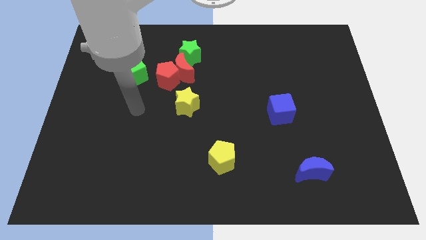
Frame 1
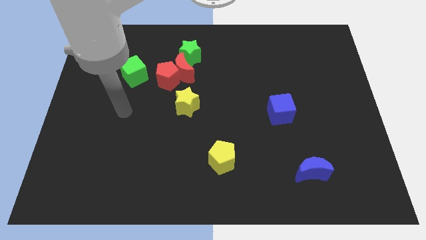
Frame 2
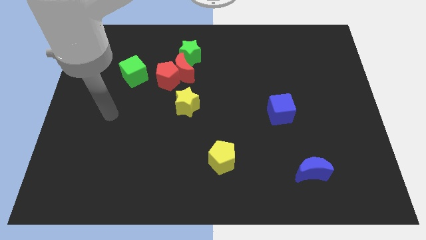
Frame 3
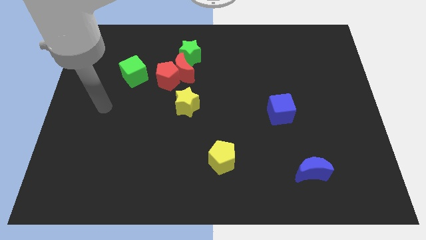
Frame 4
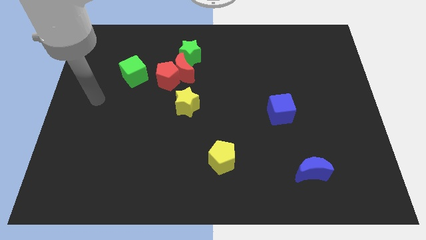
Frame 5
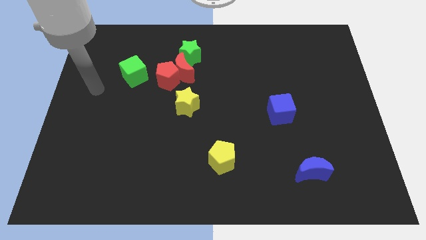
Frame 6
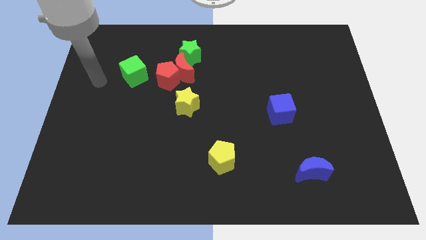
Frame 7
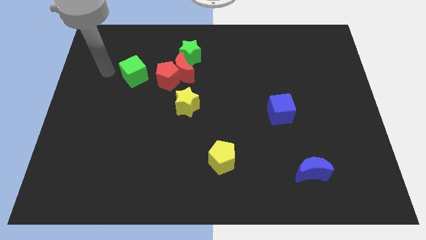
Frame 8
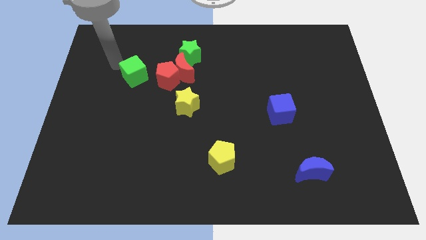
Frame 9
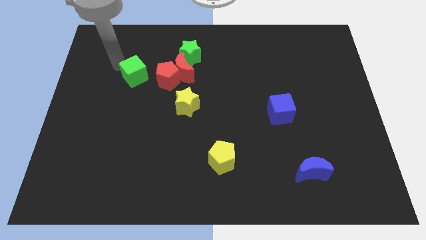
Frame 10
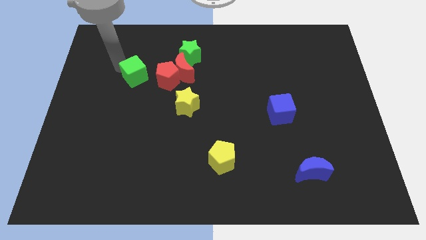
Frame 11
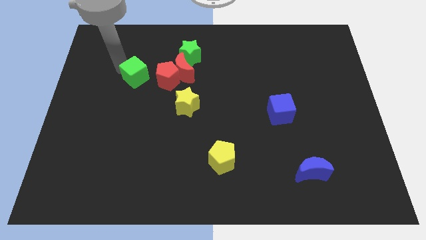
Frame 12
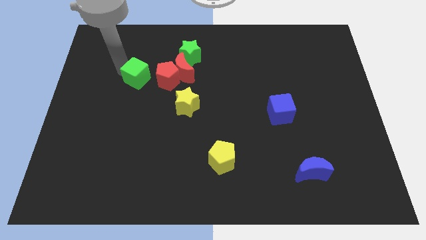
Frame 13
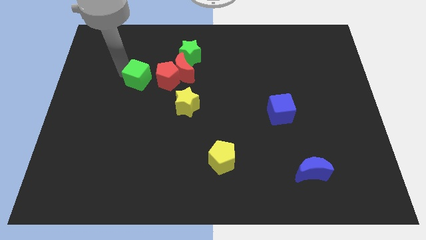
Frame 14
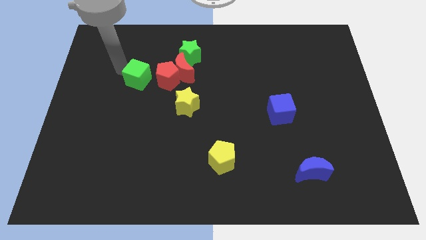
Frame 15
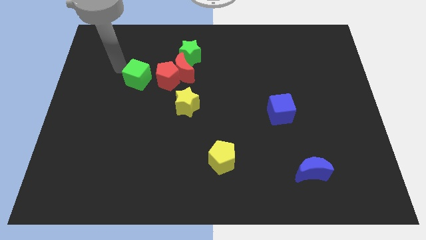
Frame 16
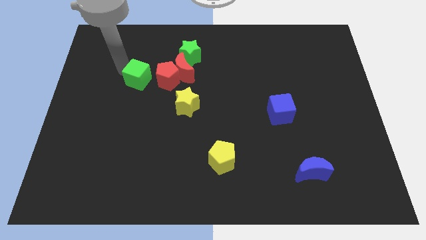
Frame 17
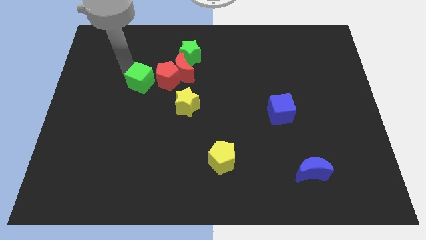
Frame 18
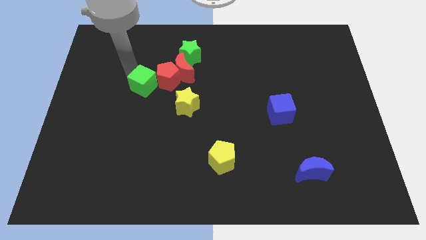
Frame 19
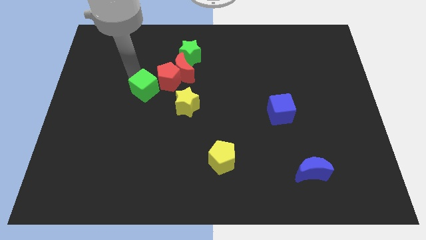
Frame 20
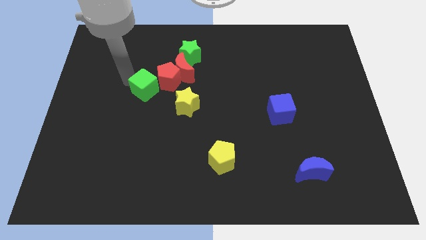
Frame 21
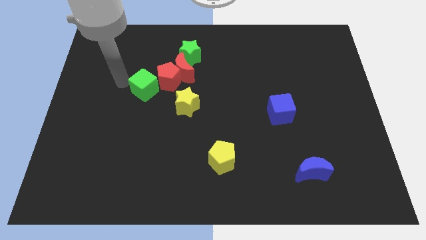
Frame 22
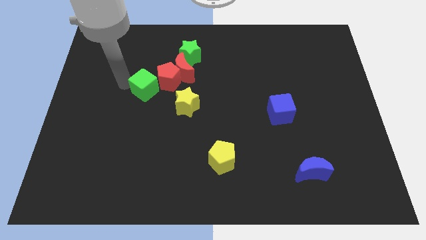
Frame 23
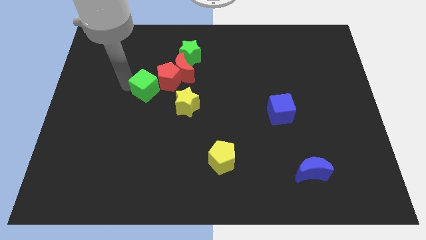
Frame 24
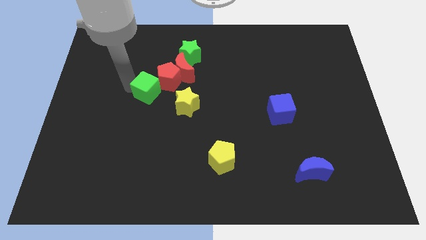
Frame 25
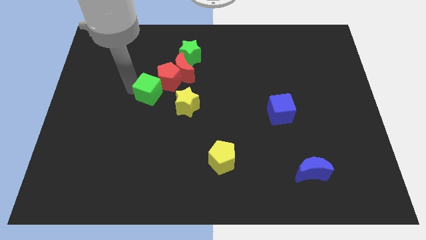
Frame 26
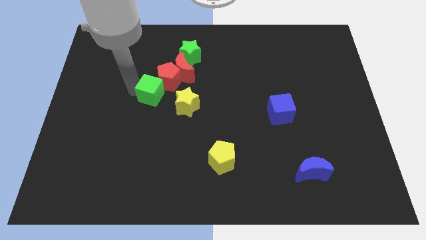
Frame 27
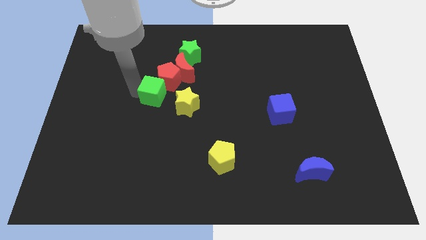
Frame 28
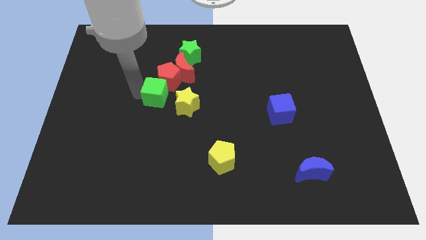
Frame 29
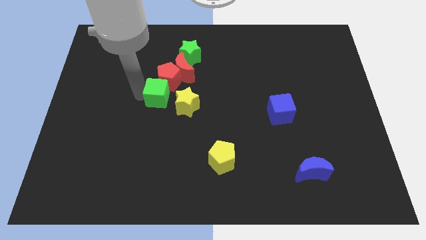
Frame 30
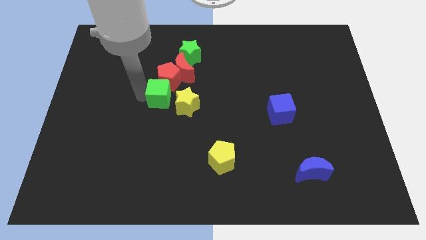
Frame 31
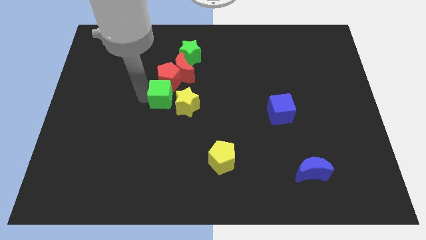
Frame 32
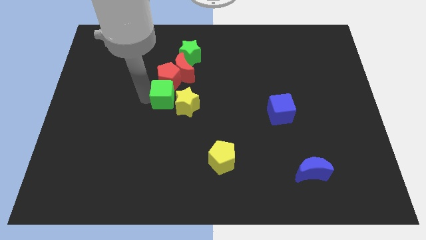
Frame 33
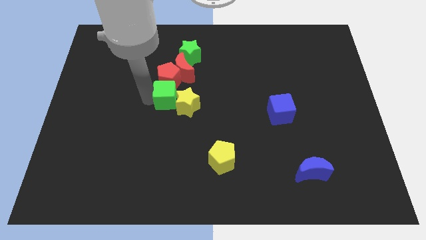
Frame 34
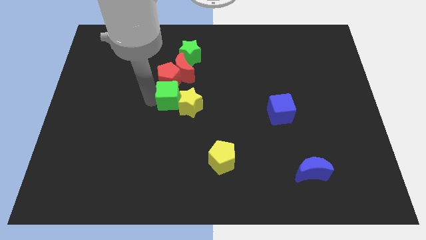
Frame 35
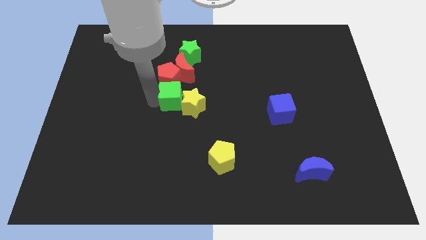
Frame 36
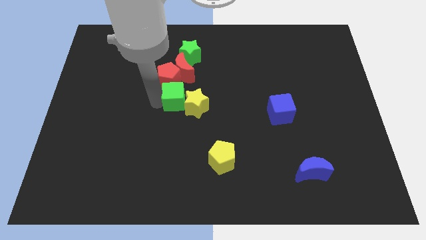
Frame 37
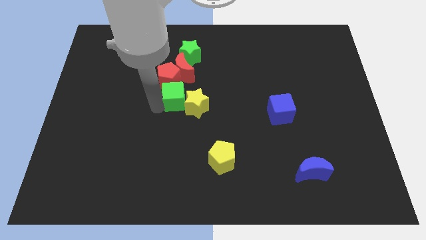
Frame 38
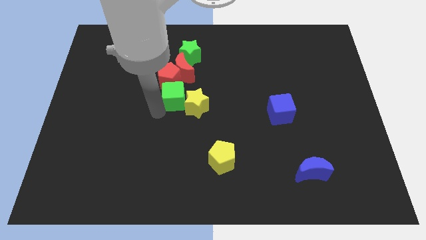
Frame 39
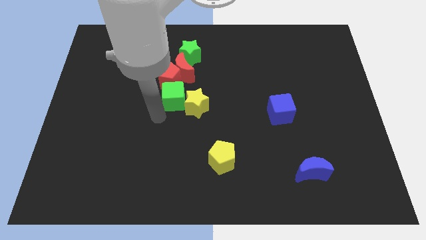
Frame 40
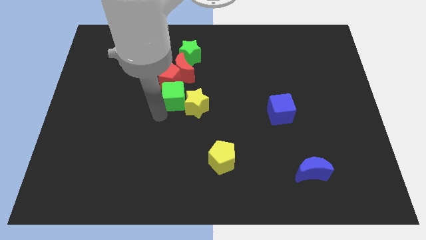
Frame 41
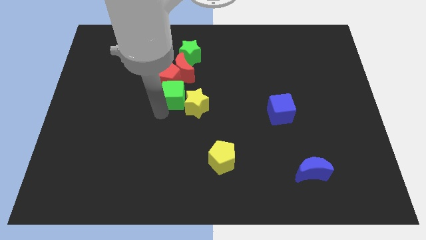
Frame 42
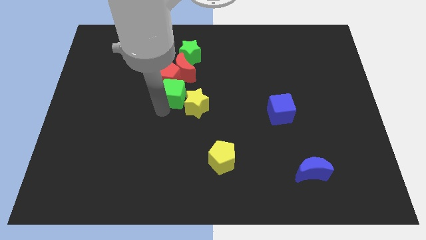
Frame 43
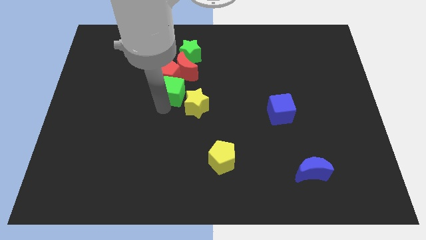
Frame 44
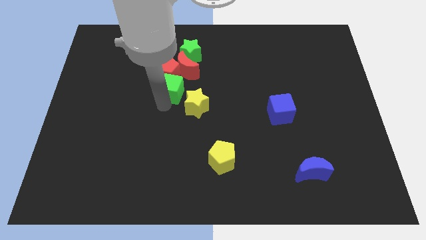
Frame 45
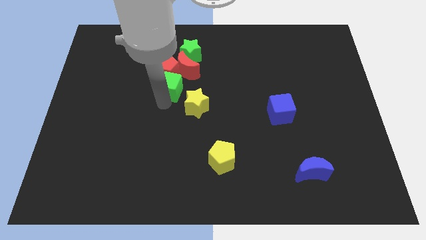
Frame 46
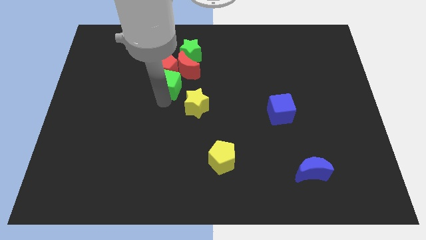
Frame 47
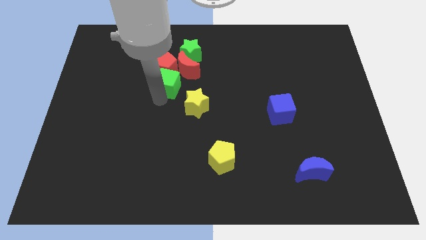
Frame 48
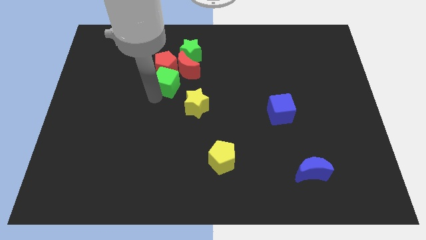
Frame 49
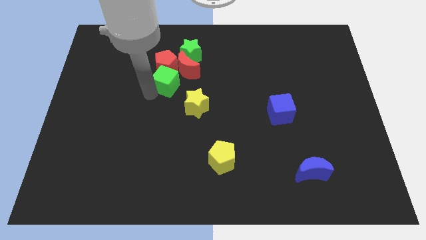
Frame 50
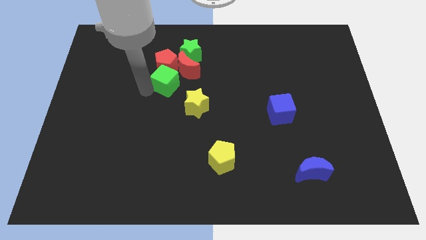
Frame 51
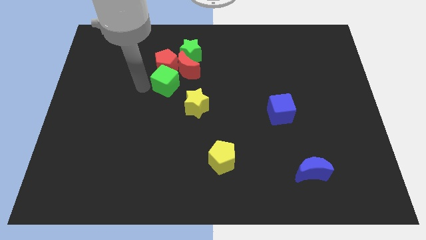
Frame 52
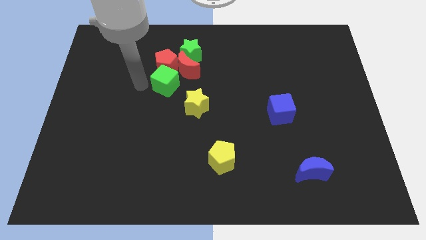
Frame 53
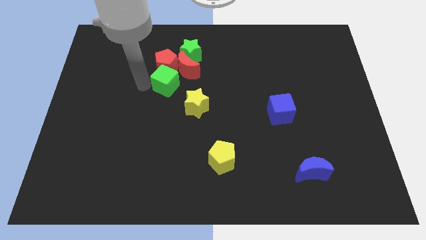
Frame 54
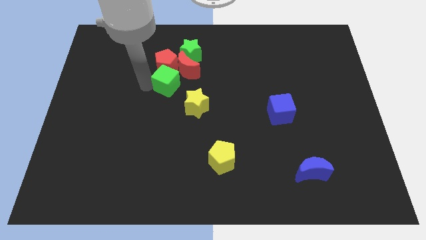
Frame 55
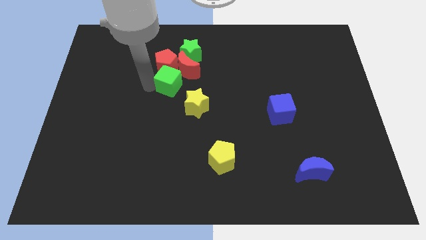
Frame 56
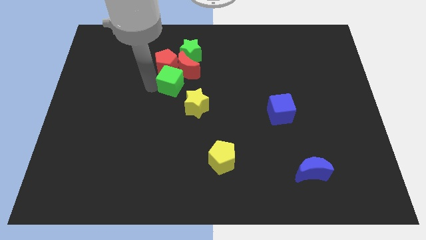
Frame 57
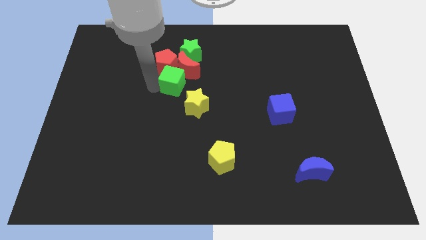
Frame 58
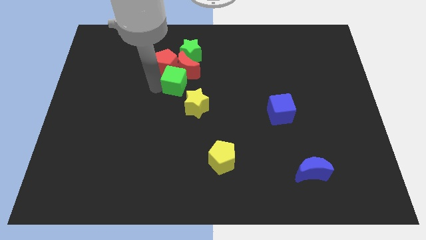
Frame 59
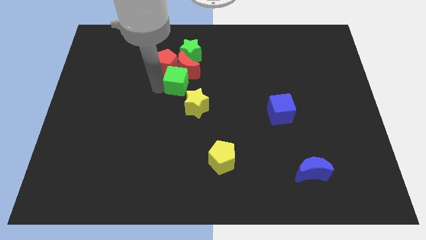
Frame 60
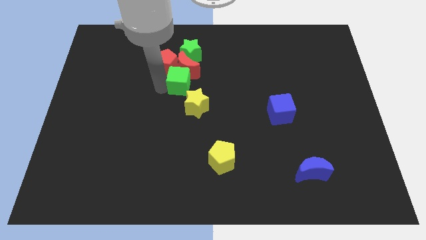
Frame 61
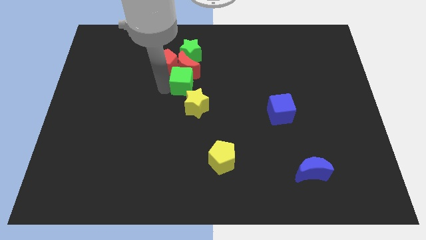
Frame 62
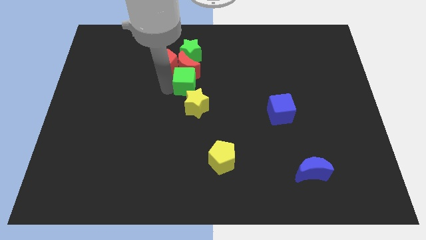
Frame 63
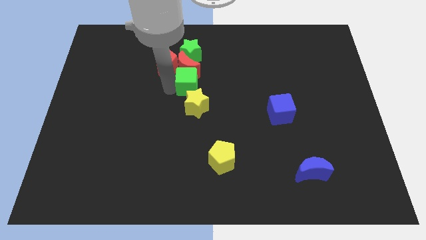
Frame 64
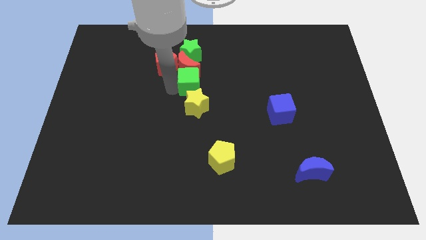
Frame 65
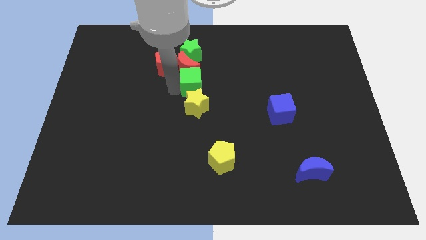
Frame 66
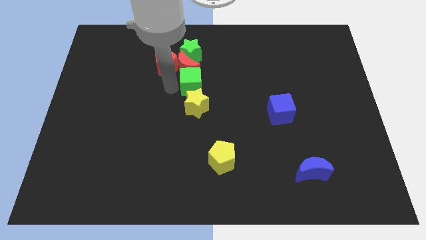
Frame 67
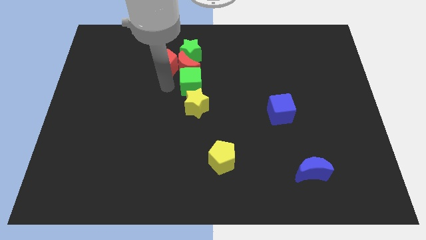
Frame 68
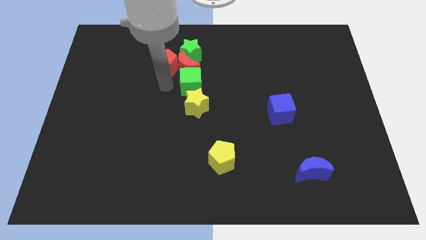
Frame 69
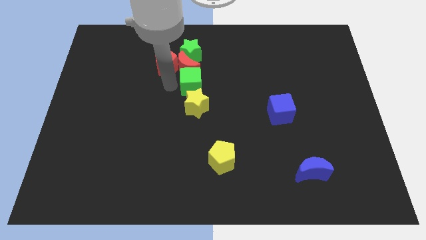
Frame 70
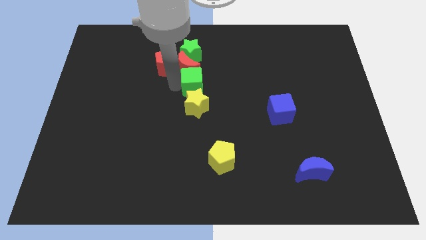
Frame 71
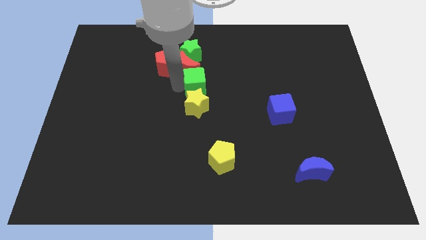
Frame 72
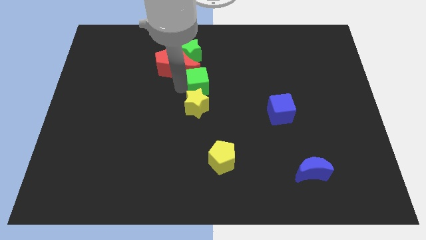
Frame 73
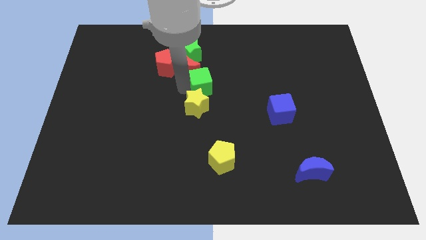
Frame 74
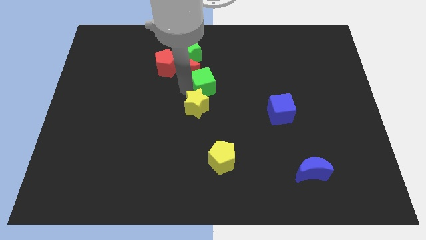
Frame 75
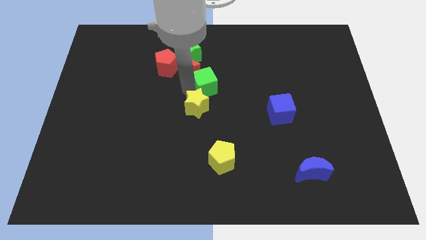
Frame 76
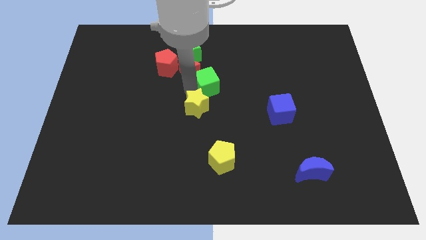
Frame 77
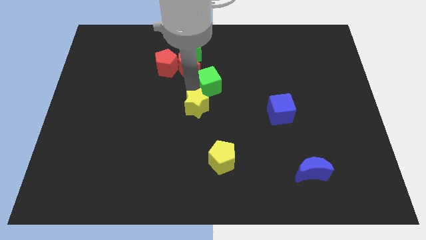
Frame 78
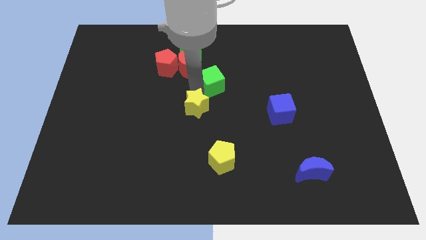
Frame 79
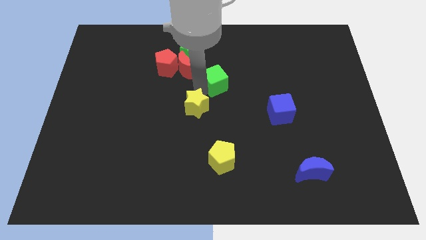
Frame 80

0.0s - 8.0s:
push the green cube to the right

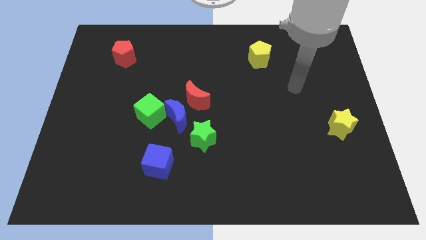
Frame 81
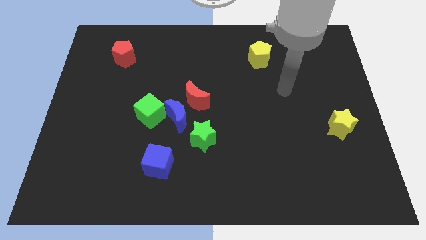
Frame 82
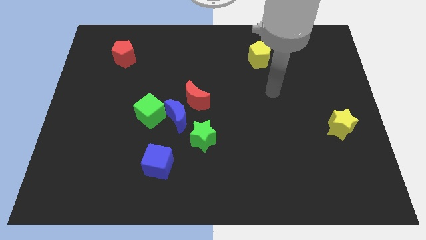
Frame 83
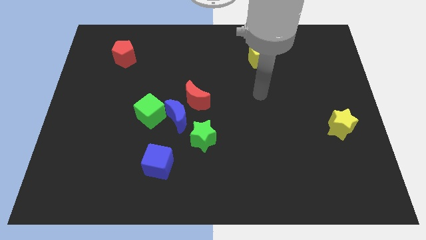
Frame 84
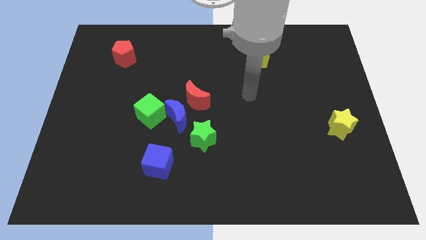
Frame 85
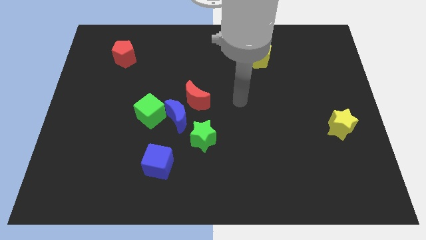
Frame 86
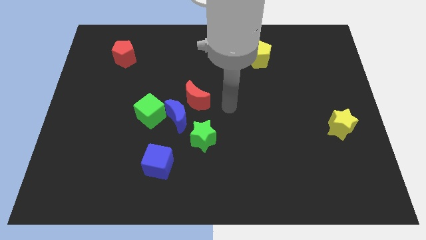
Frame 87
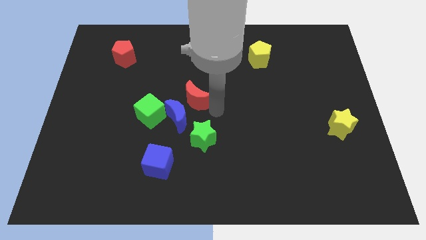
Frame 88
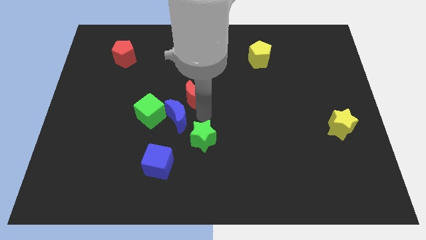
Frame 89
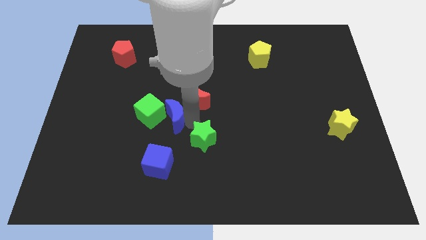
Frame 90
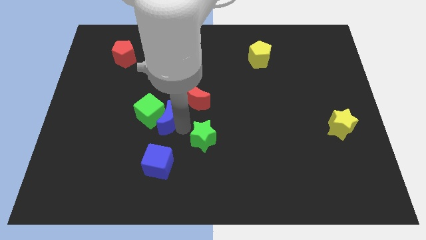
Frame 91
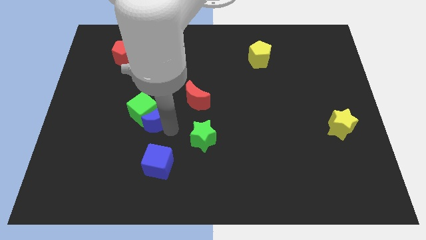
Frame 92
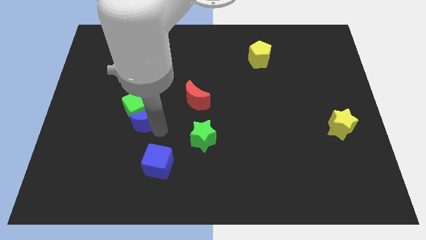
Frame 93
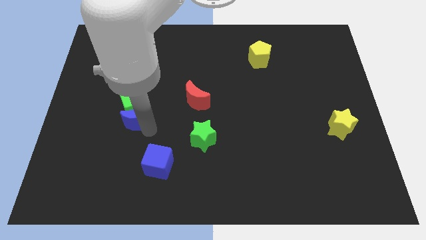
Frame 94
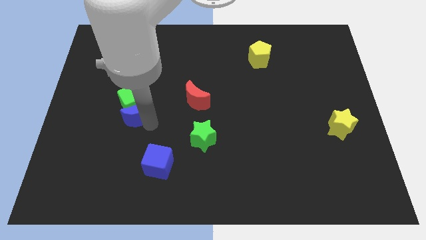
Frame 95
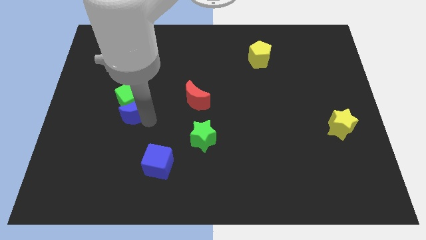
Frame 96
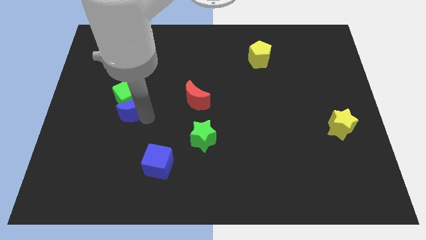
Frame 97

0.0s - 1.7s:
slightly push the green cube upwards and to the left
